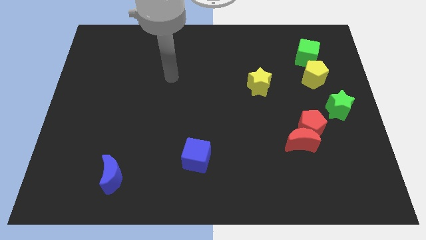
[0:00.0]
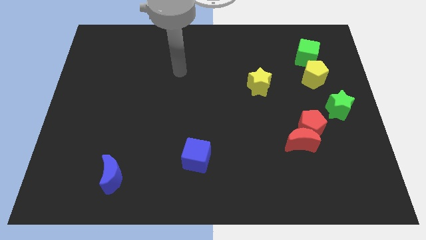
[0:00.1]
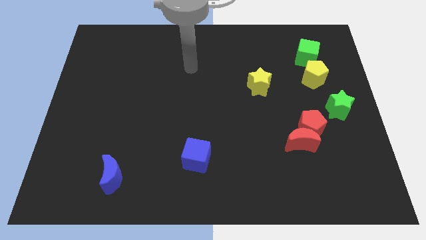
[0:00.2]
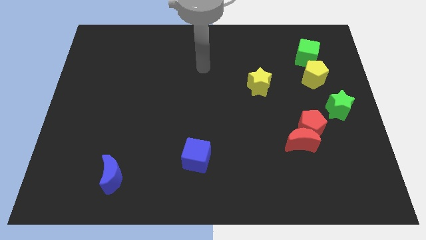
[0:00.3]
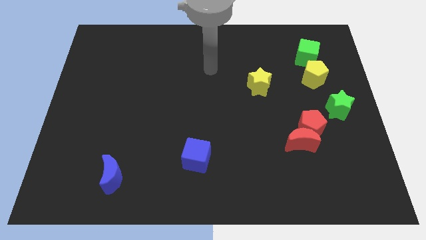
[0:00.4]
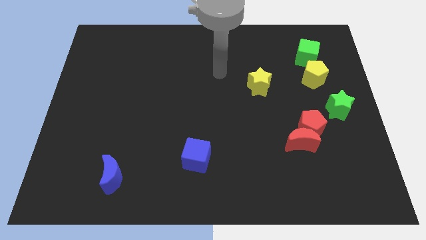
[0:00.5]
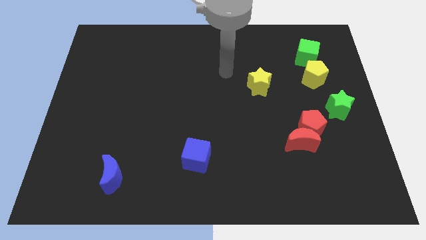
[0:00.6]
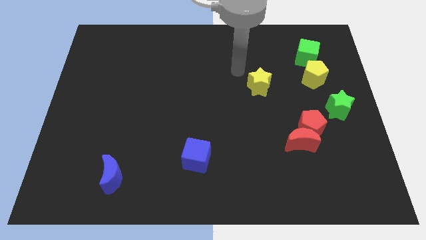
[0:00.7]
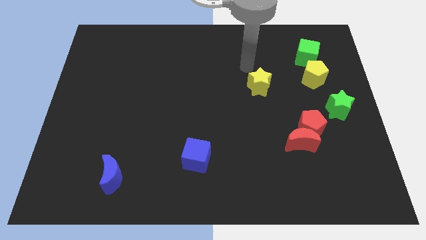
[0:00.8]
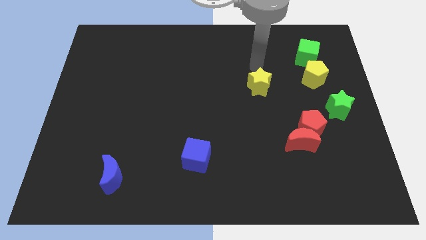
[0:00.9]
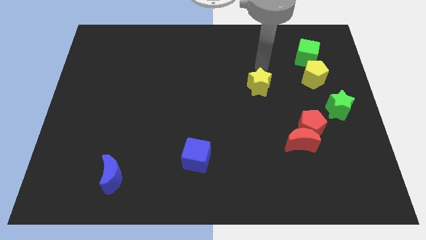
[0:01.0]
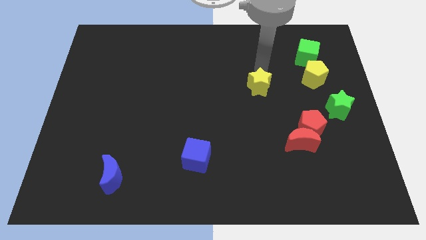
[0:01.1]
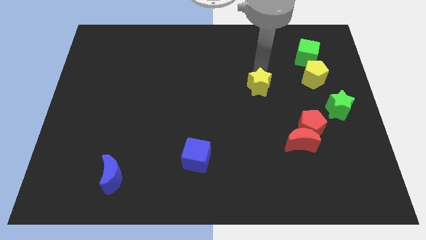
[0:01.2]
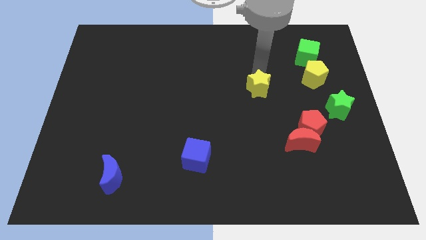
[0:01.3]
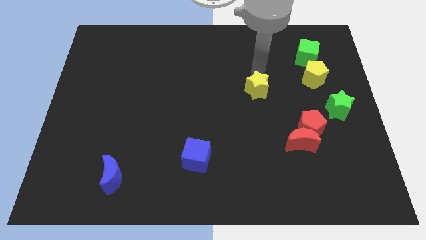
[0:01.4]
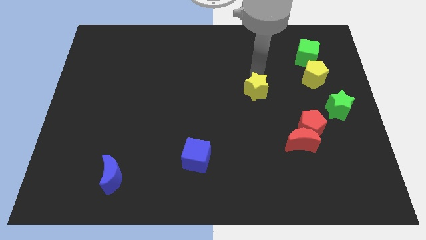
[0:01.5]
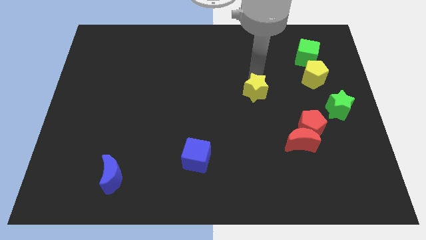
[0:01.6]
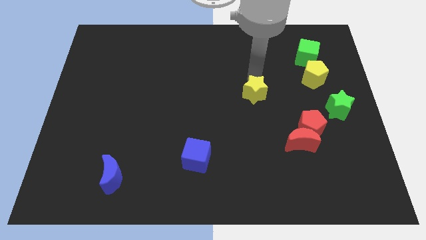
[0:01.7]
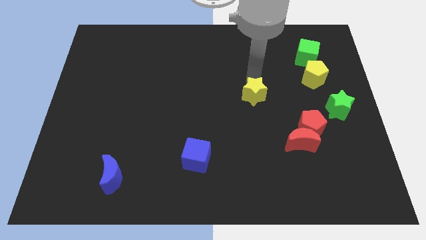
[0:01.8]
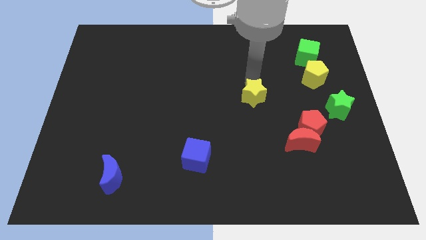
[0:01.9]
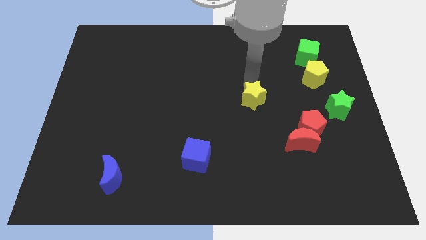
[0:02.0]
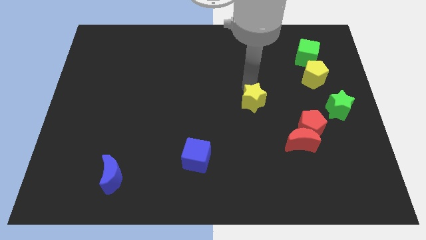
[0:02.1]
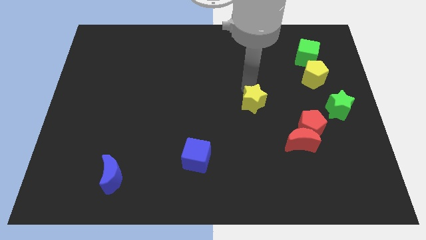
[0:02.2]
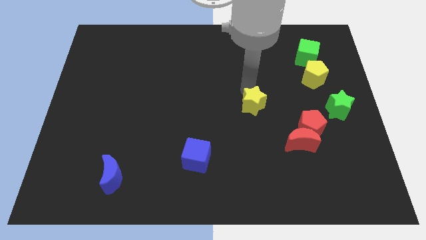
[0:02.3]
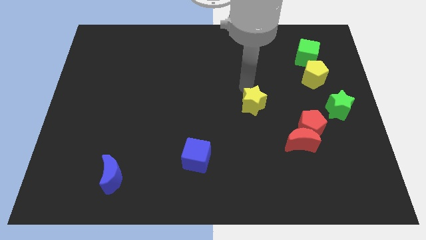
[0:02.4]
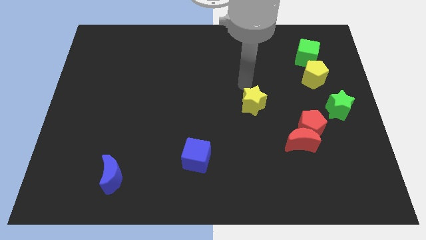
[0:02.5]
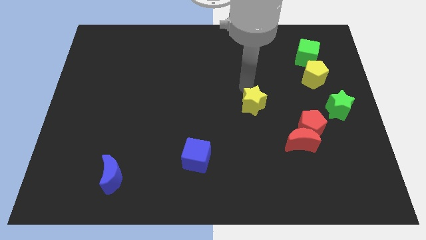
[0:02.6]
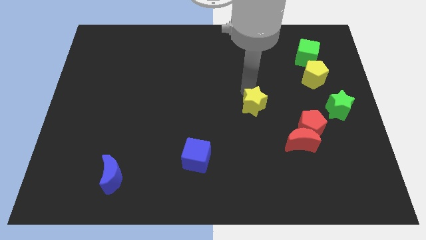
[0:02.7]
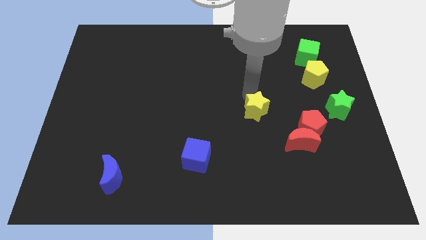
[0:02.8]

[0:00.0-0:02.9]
push the yellow star down slightly

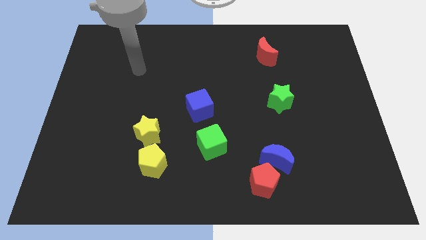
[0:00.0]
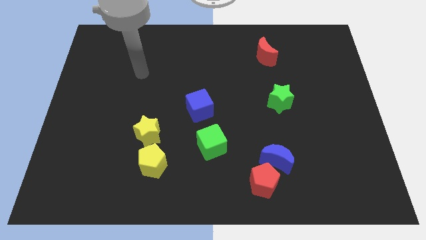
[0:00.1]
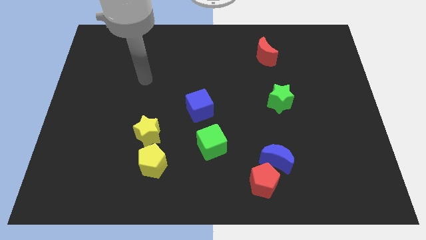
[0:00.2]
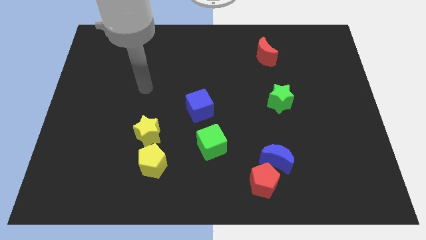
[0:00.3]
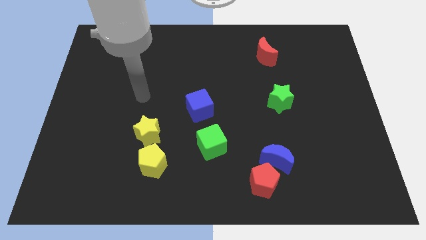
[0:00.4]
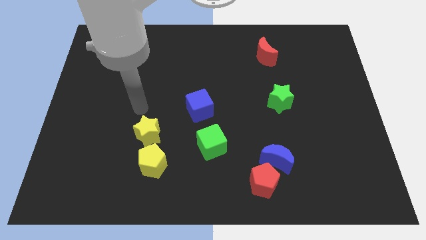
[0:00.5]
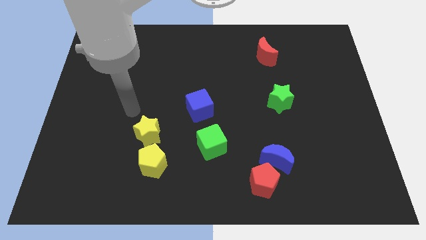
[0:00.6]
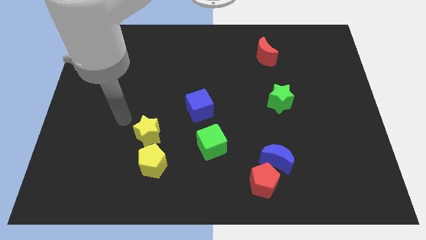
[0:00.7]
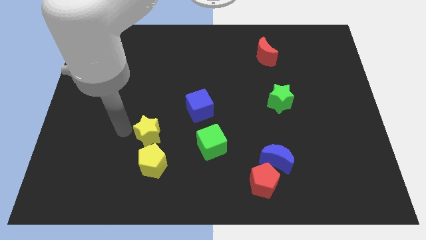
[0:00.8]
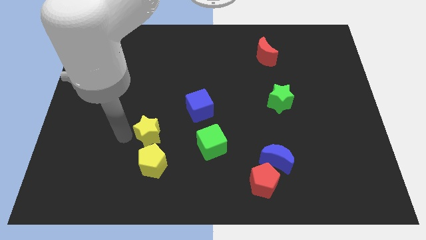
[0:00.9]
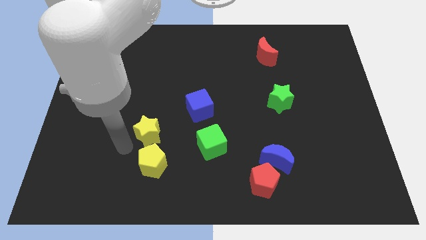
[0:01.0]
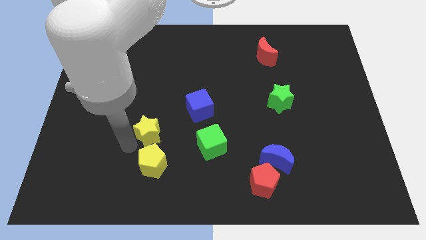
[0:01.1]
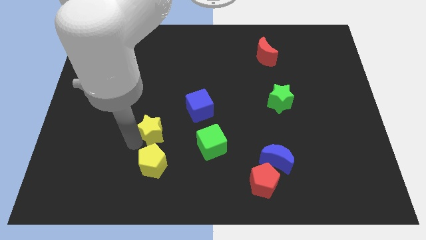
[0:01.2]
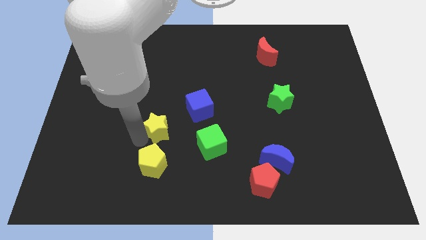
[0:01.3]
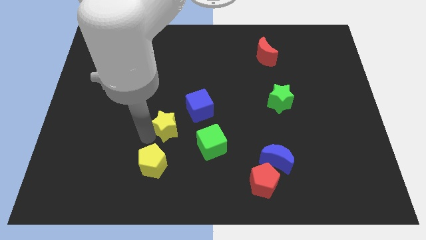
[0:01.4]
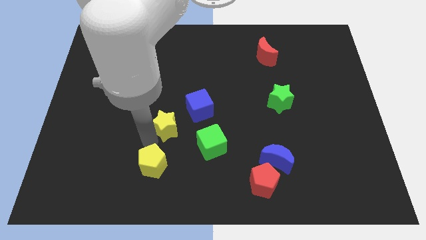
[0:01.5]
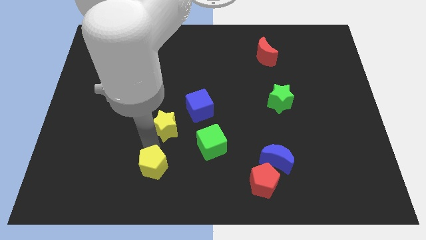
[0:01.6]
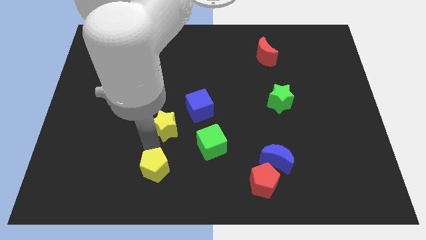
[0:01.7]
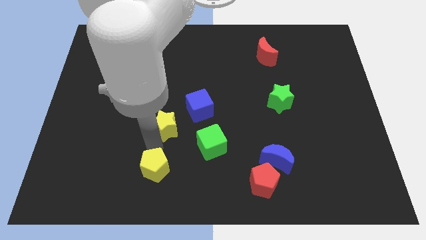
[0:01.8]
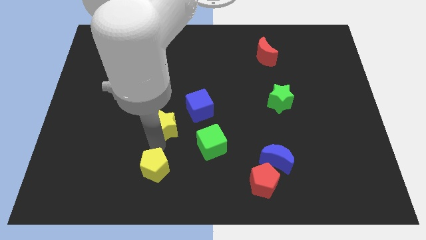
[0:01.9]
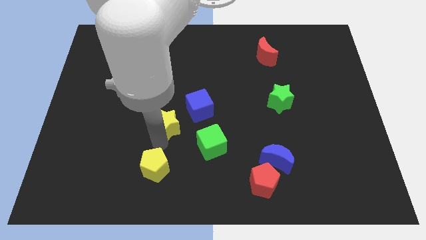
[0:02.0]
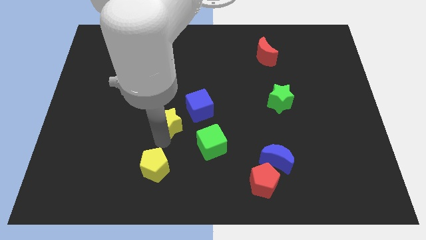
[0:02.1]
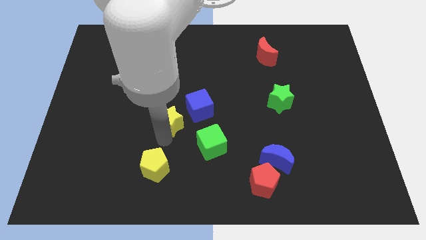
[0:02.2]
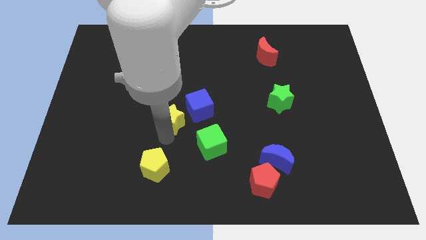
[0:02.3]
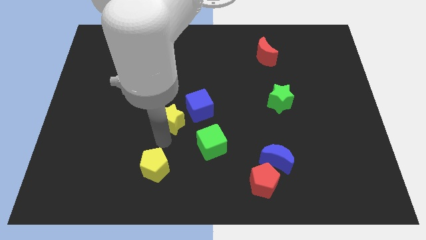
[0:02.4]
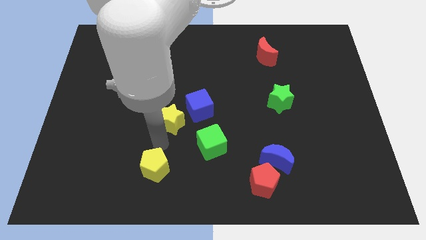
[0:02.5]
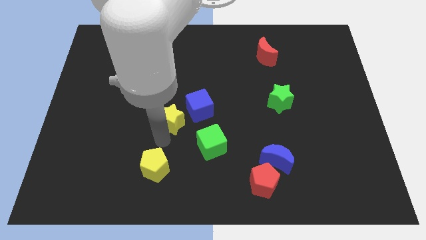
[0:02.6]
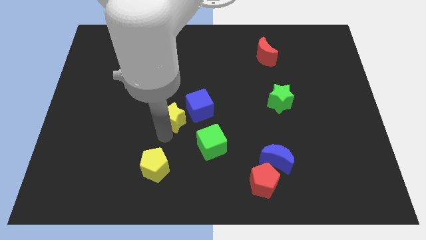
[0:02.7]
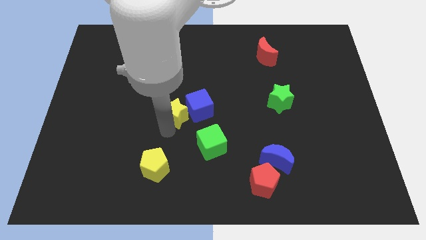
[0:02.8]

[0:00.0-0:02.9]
slightly move the yellow star diagonally up and right

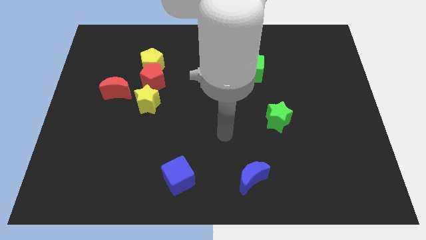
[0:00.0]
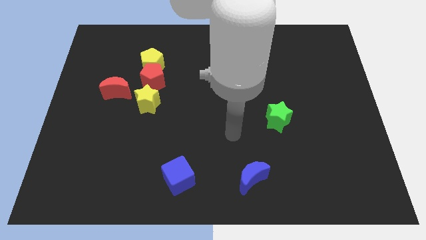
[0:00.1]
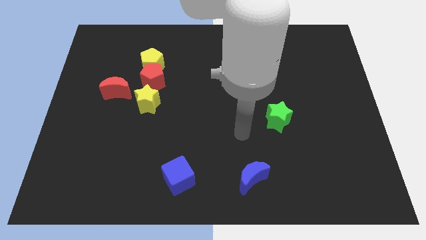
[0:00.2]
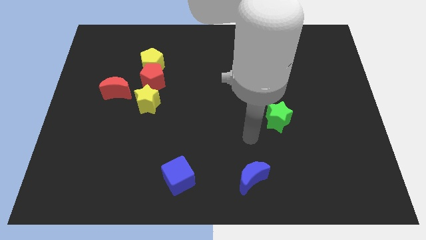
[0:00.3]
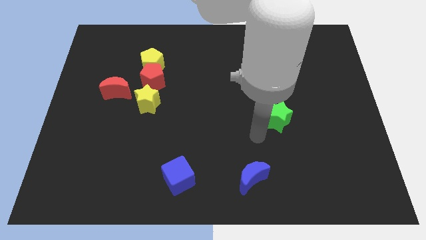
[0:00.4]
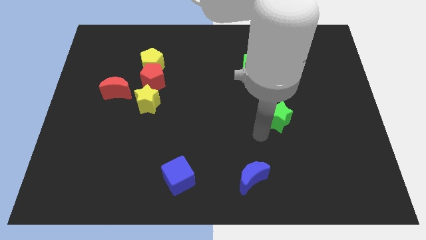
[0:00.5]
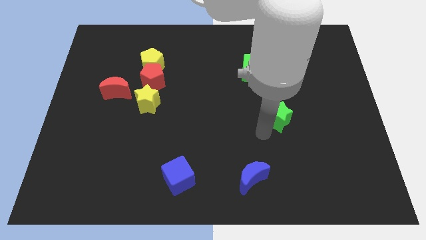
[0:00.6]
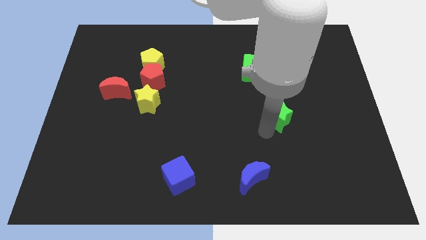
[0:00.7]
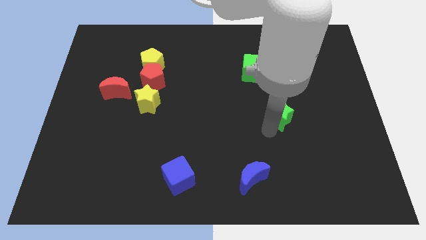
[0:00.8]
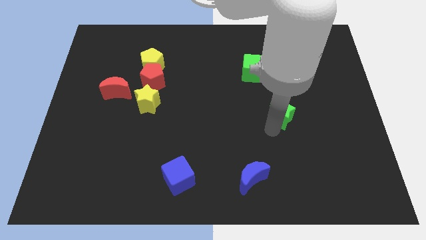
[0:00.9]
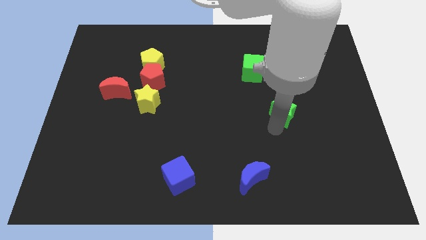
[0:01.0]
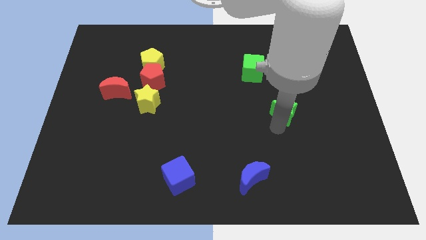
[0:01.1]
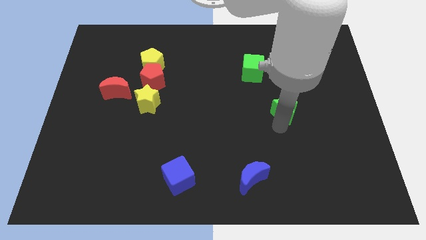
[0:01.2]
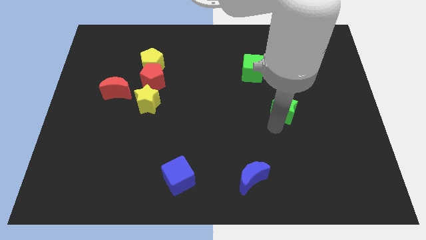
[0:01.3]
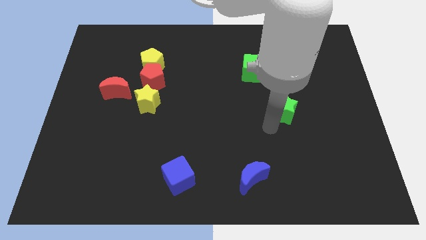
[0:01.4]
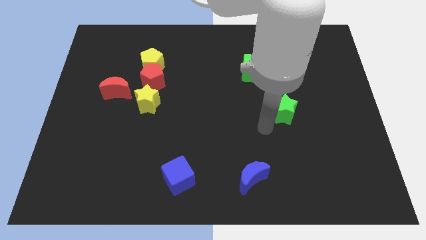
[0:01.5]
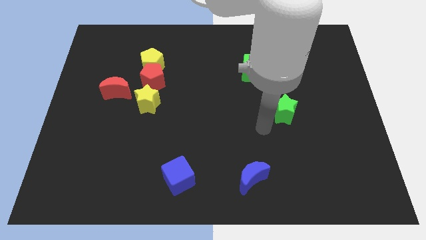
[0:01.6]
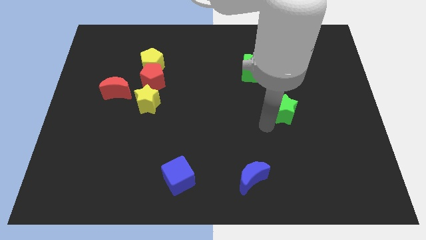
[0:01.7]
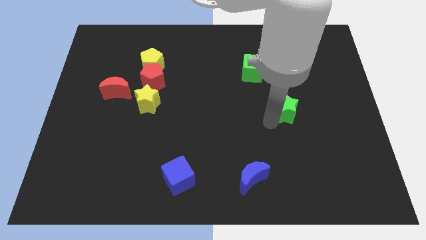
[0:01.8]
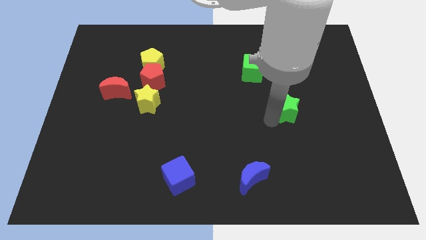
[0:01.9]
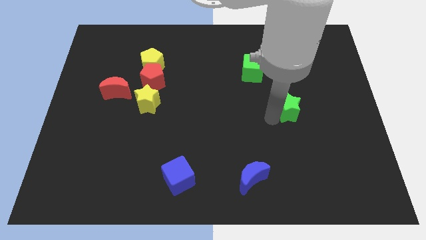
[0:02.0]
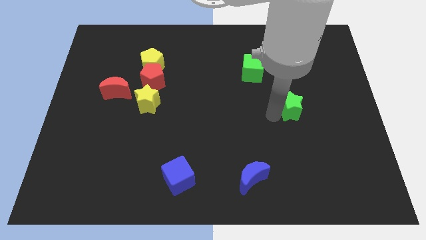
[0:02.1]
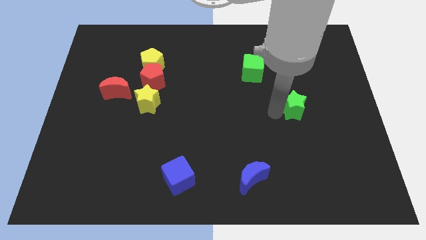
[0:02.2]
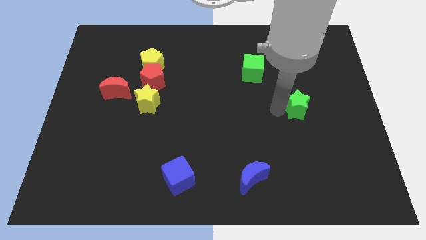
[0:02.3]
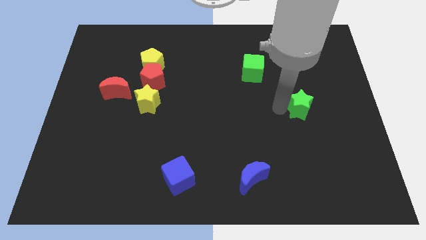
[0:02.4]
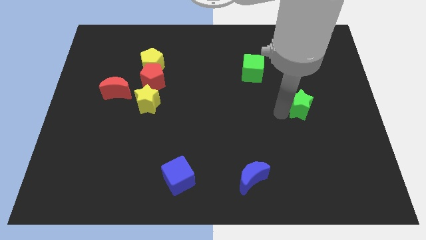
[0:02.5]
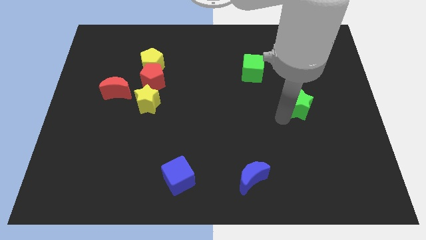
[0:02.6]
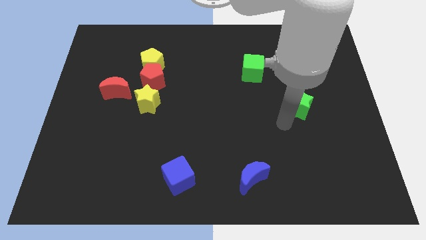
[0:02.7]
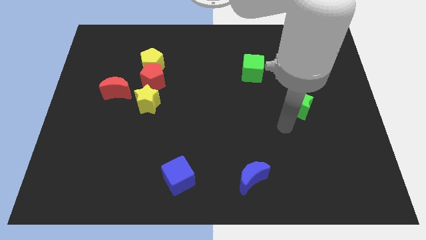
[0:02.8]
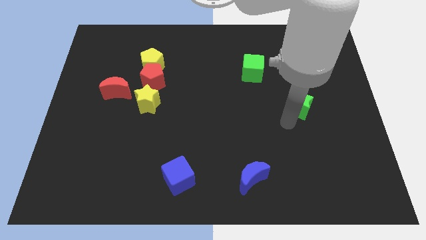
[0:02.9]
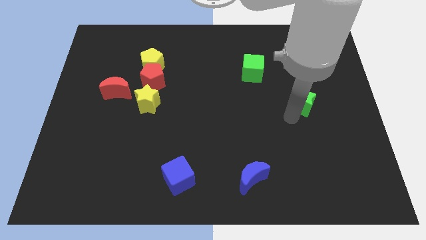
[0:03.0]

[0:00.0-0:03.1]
move the green star a little up and right
